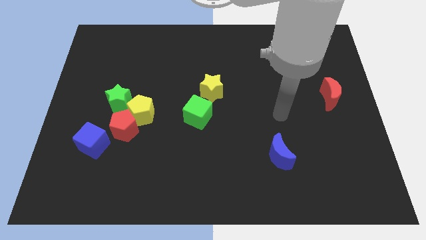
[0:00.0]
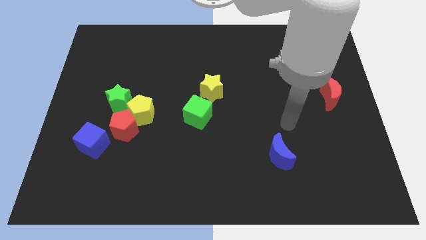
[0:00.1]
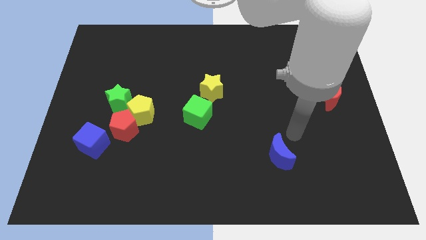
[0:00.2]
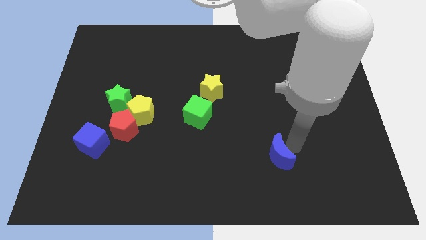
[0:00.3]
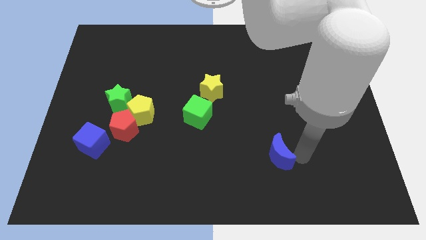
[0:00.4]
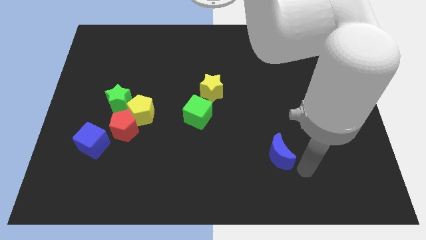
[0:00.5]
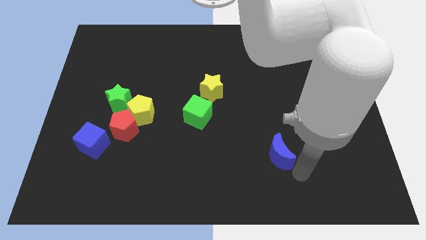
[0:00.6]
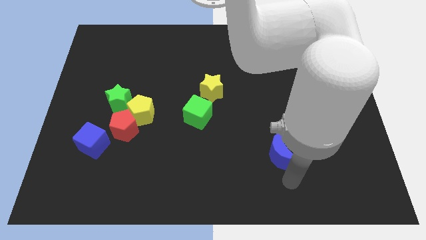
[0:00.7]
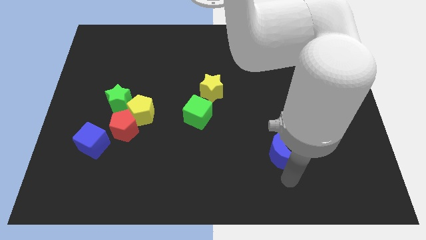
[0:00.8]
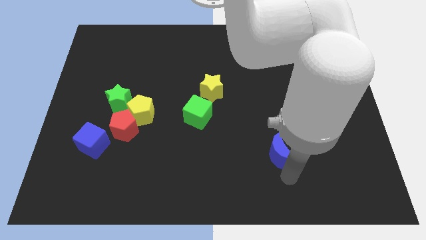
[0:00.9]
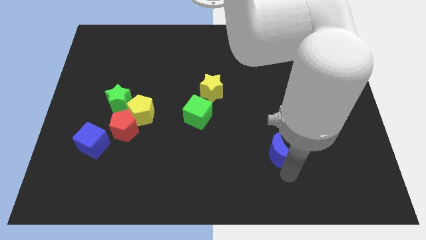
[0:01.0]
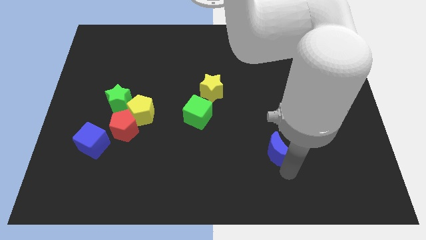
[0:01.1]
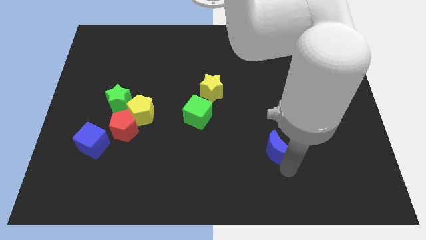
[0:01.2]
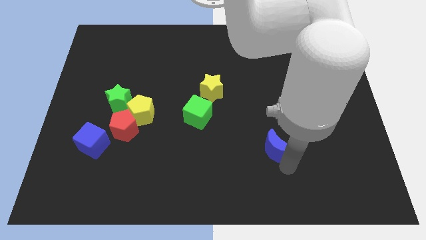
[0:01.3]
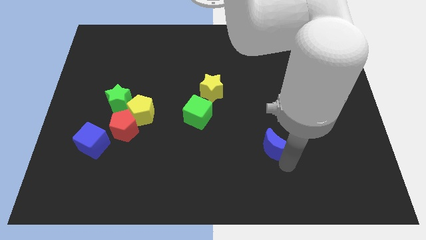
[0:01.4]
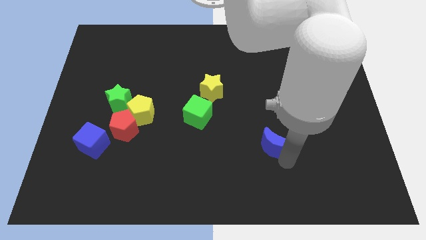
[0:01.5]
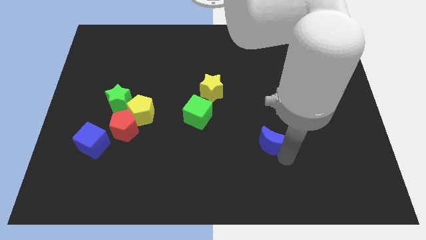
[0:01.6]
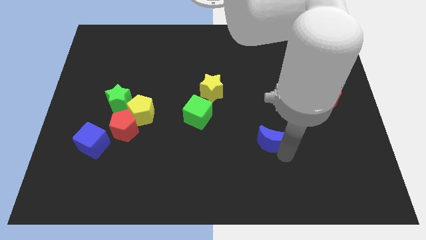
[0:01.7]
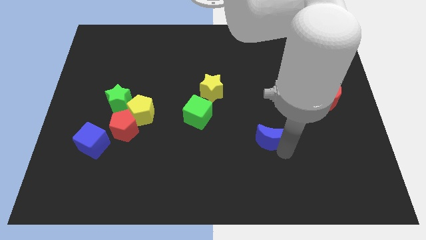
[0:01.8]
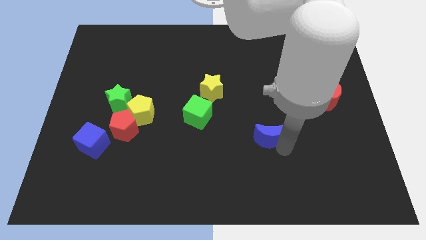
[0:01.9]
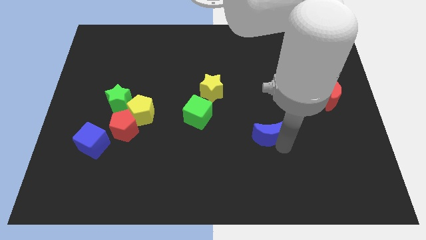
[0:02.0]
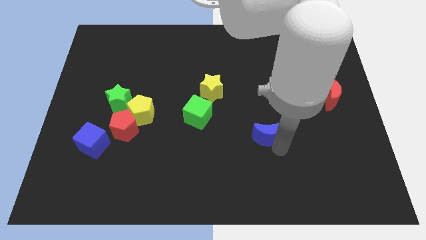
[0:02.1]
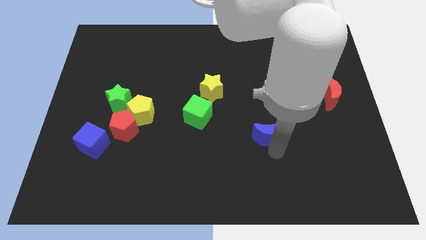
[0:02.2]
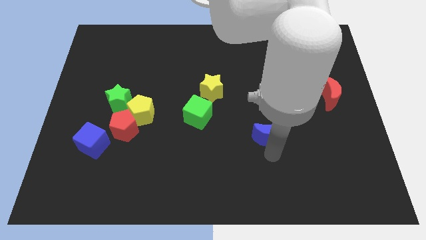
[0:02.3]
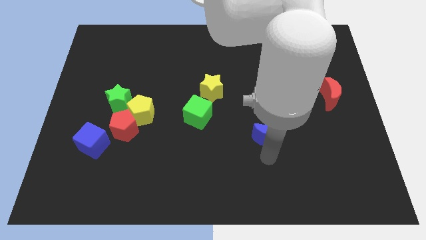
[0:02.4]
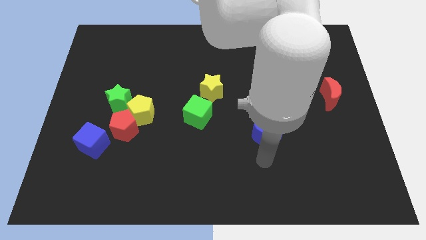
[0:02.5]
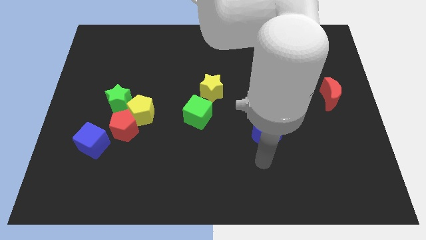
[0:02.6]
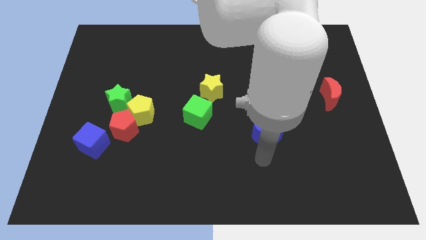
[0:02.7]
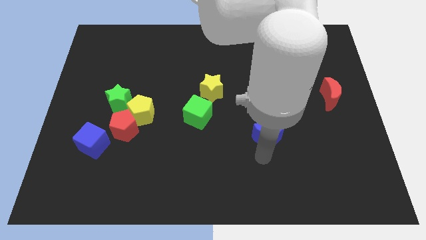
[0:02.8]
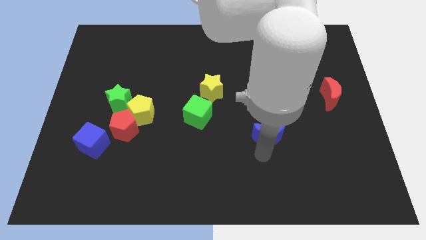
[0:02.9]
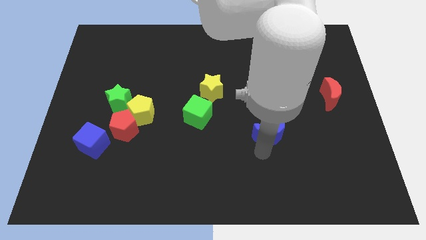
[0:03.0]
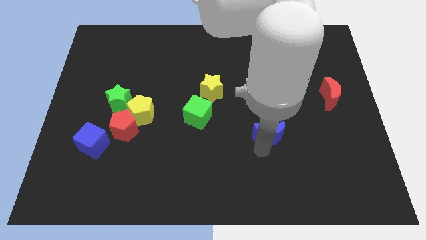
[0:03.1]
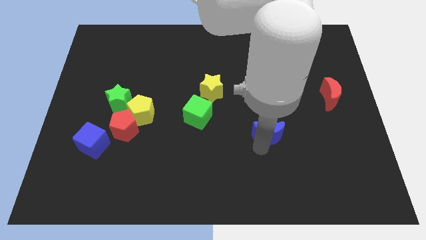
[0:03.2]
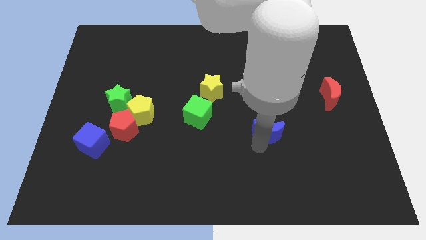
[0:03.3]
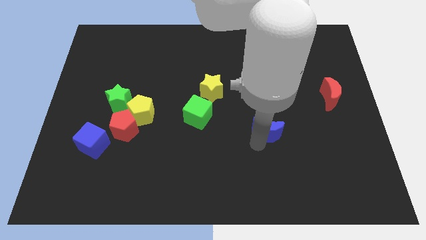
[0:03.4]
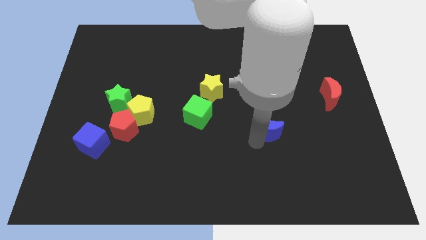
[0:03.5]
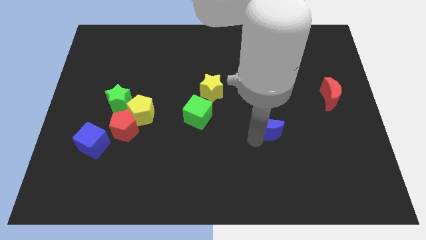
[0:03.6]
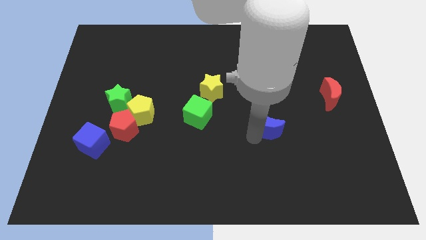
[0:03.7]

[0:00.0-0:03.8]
slightly slide the blue moon upwards

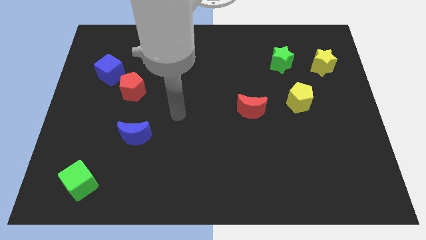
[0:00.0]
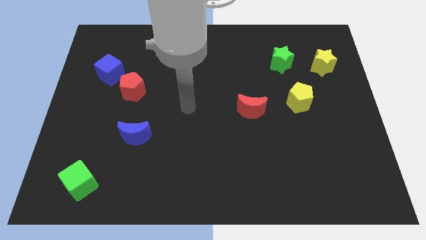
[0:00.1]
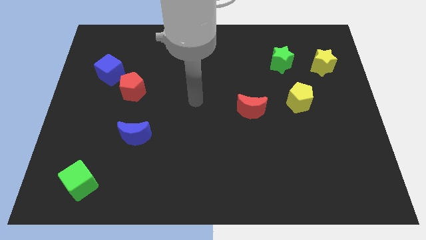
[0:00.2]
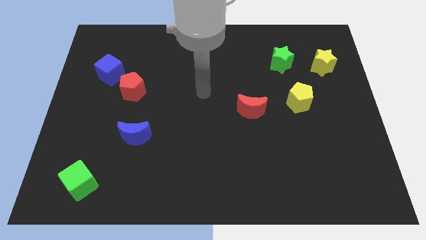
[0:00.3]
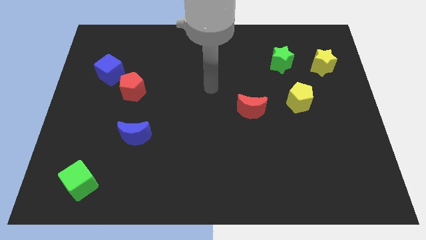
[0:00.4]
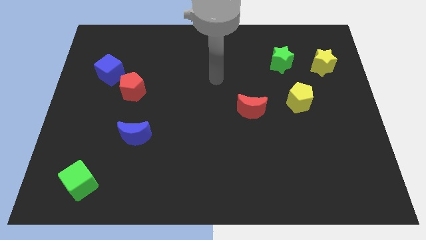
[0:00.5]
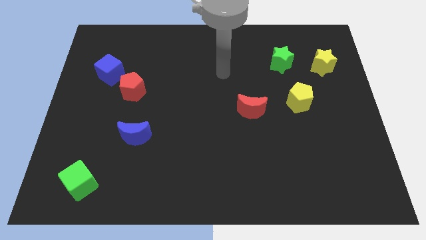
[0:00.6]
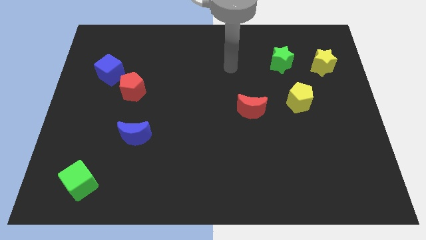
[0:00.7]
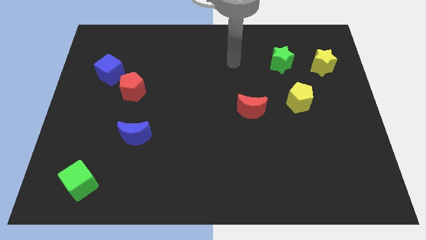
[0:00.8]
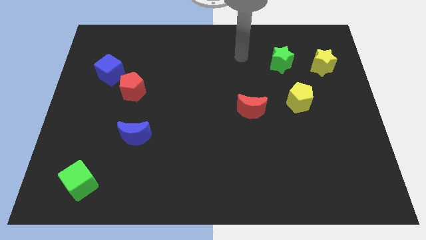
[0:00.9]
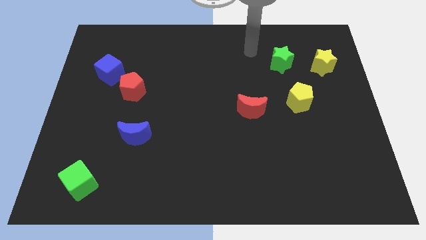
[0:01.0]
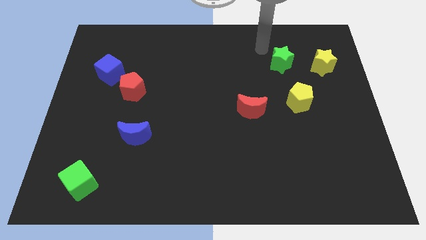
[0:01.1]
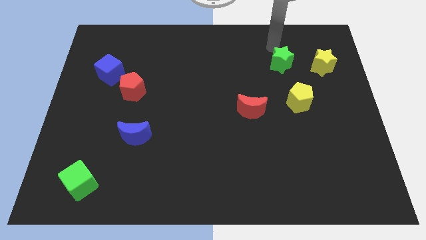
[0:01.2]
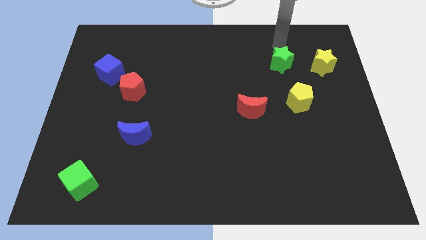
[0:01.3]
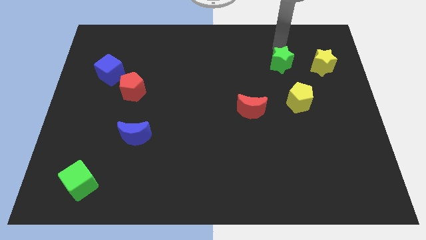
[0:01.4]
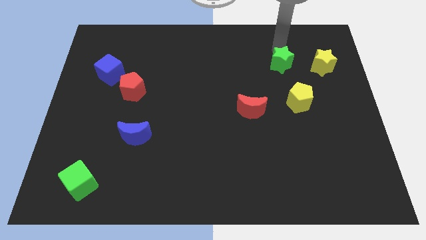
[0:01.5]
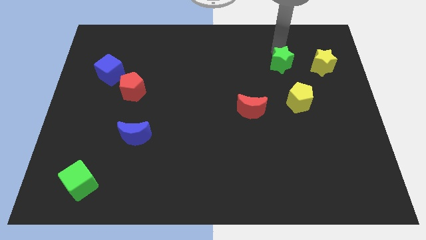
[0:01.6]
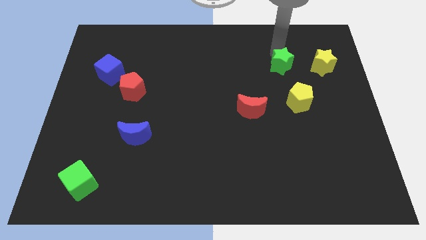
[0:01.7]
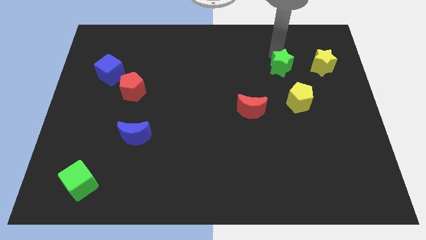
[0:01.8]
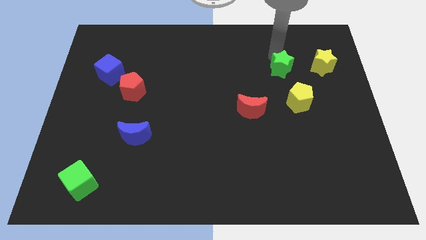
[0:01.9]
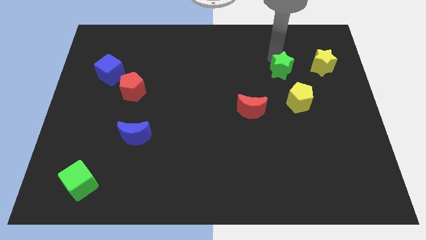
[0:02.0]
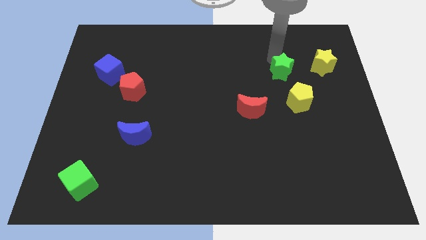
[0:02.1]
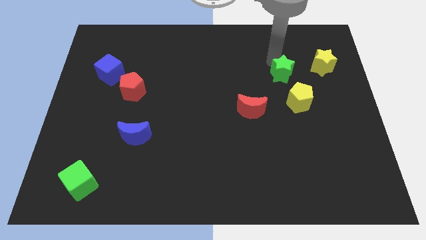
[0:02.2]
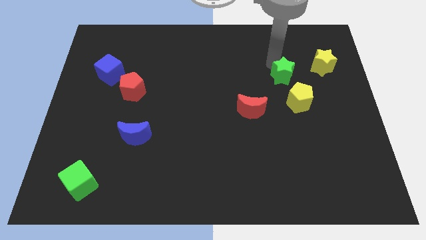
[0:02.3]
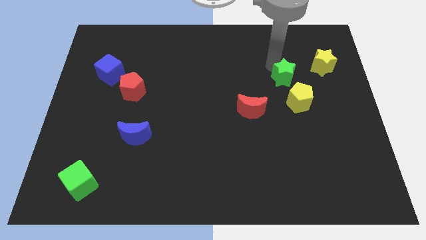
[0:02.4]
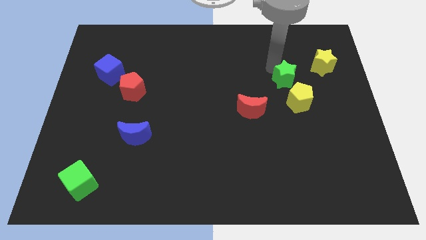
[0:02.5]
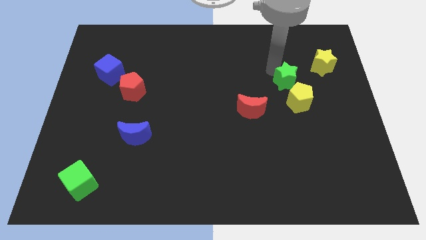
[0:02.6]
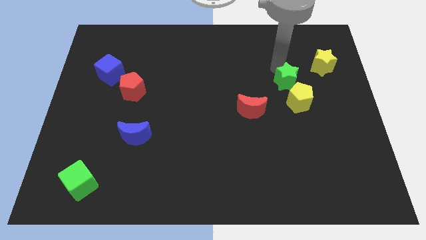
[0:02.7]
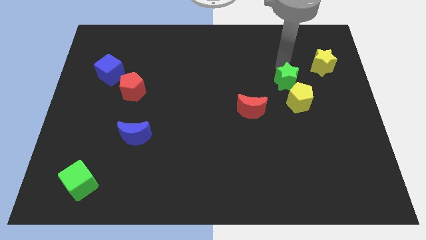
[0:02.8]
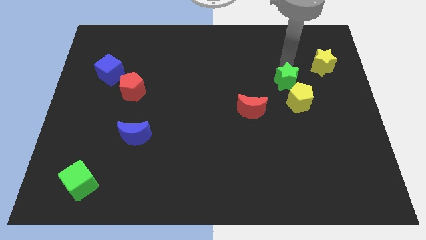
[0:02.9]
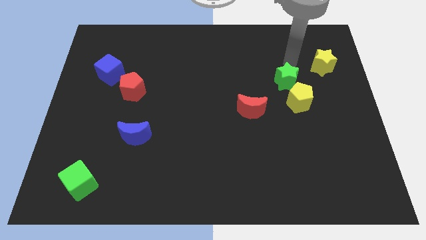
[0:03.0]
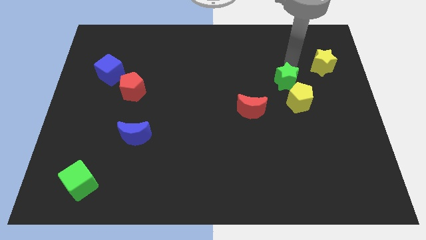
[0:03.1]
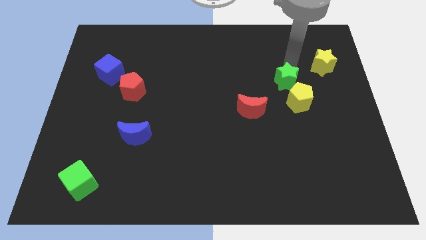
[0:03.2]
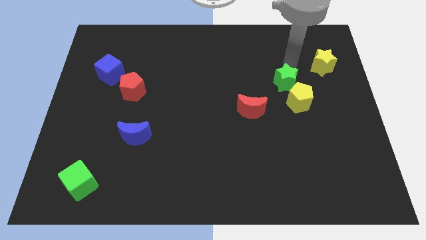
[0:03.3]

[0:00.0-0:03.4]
slightly move the green star down

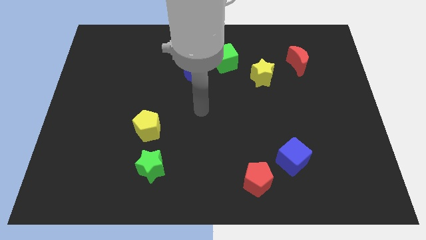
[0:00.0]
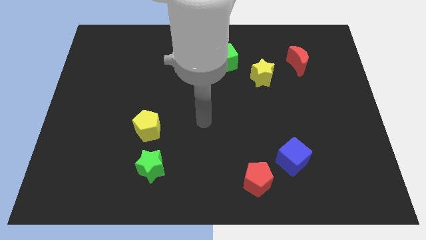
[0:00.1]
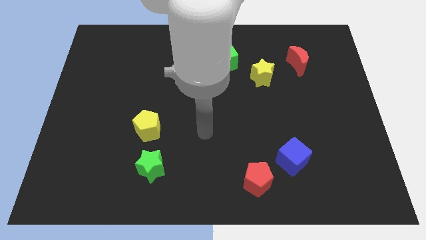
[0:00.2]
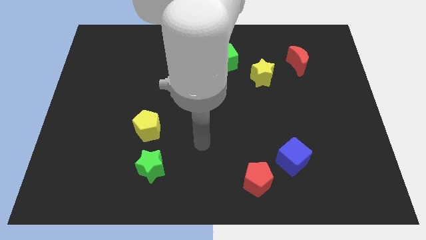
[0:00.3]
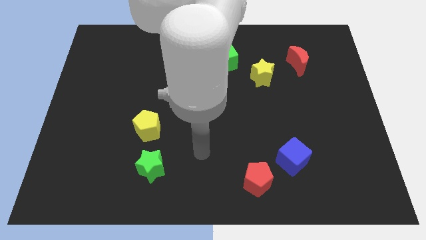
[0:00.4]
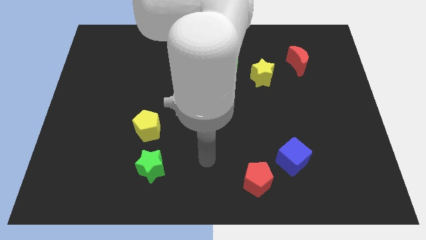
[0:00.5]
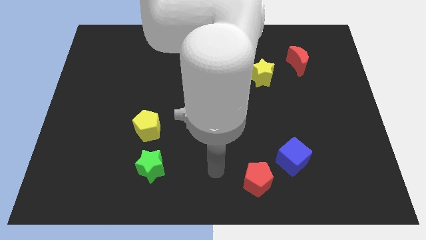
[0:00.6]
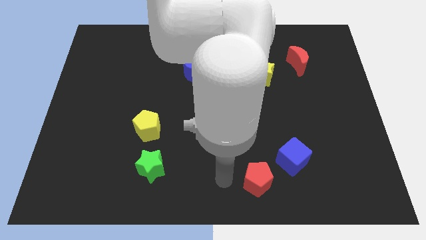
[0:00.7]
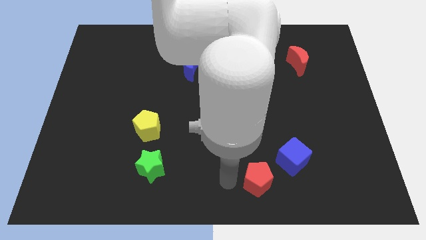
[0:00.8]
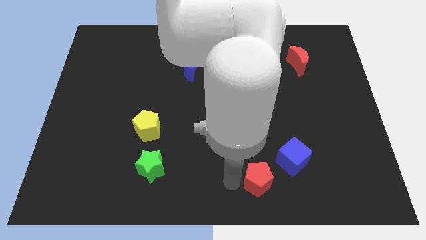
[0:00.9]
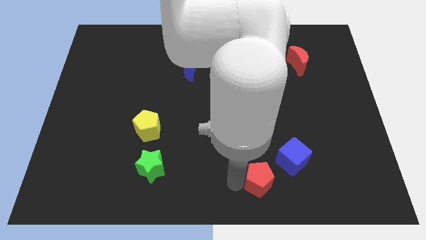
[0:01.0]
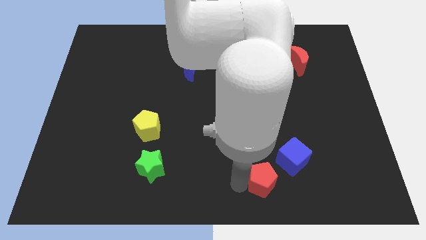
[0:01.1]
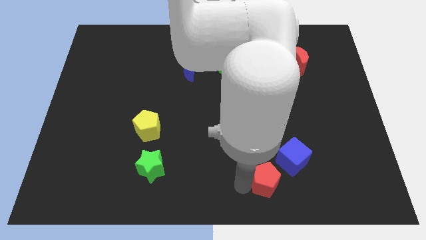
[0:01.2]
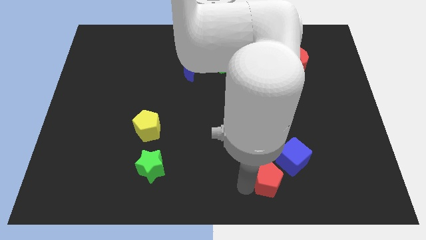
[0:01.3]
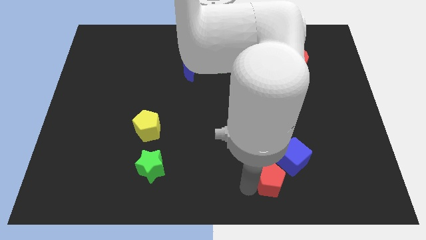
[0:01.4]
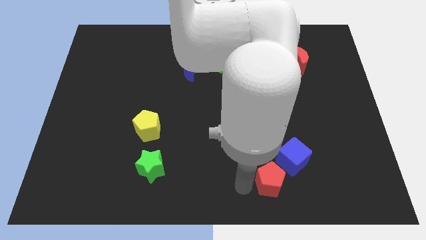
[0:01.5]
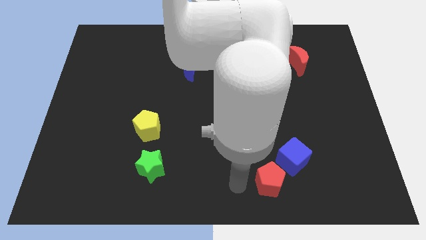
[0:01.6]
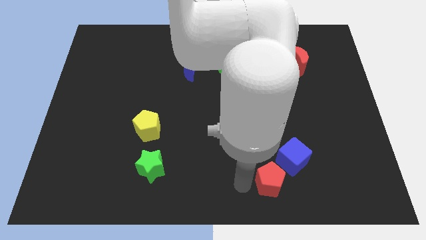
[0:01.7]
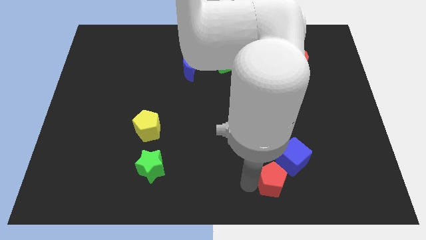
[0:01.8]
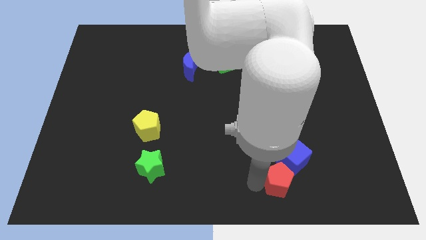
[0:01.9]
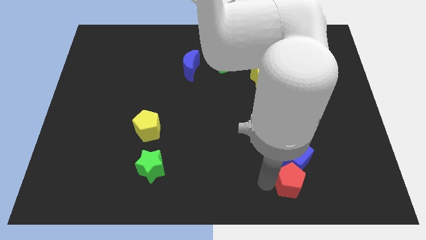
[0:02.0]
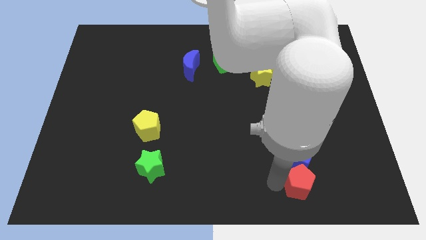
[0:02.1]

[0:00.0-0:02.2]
push the red pentagon right somewhat
